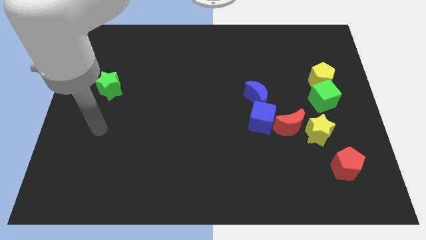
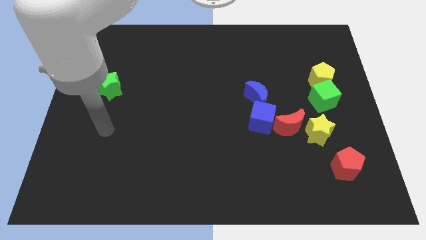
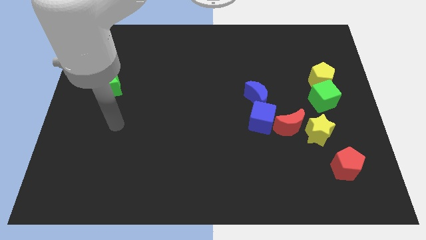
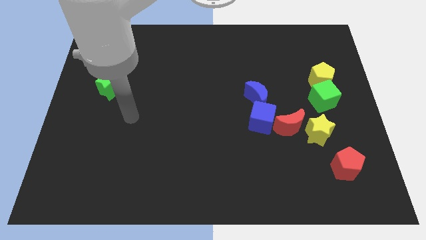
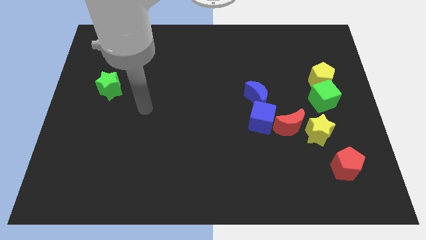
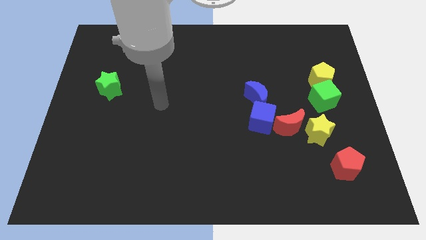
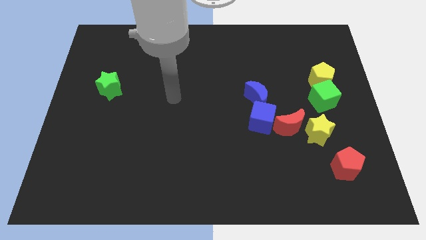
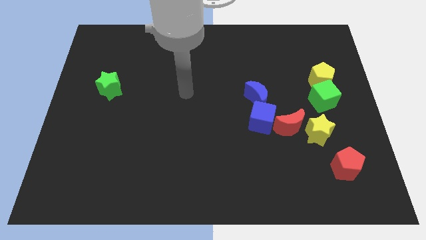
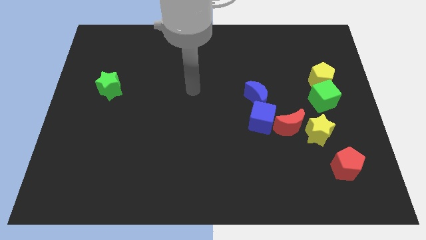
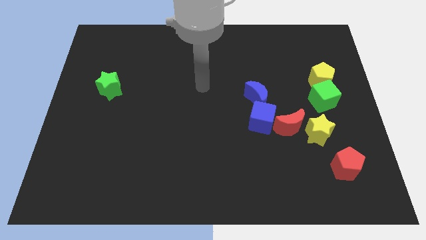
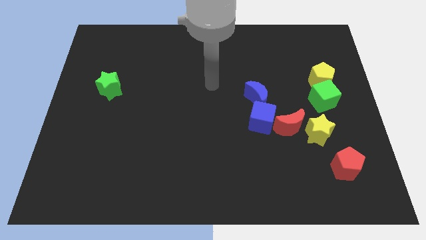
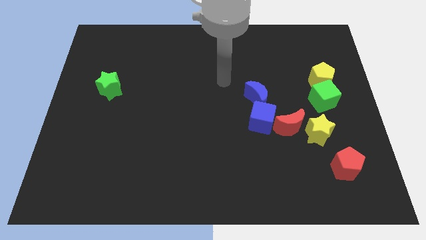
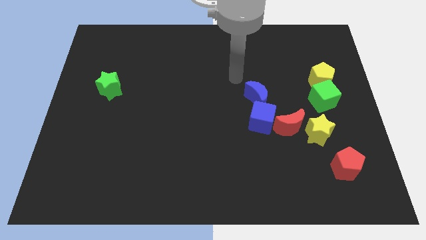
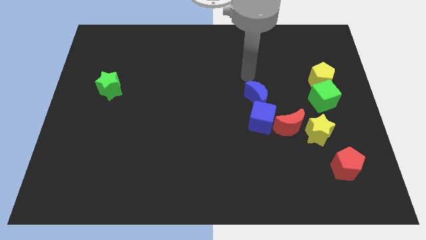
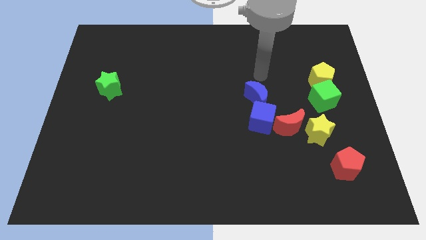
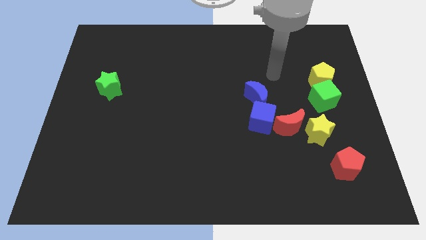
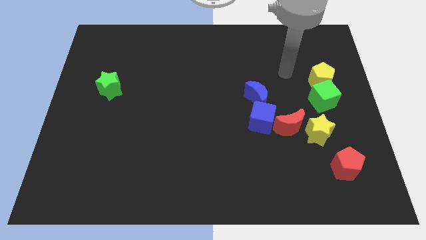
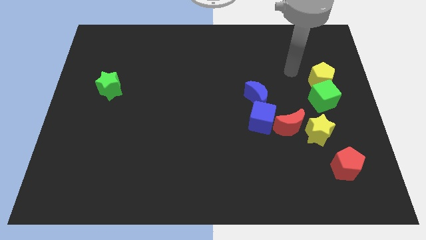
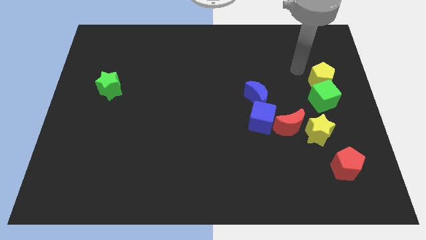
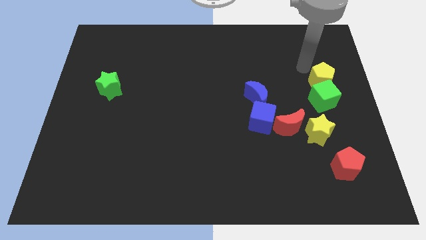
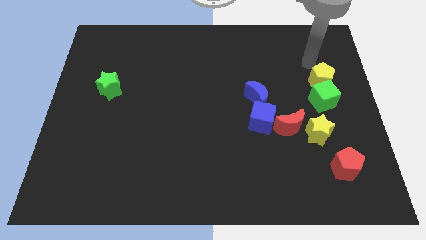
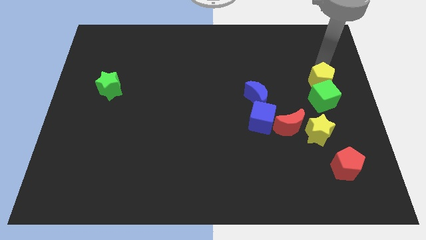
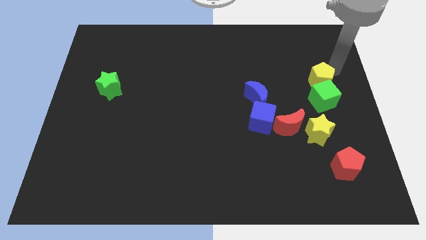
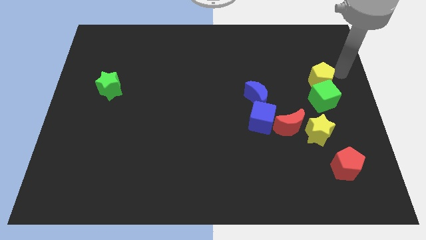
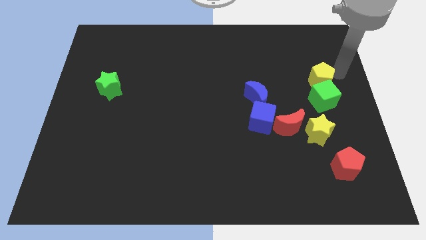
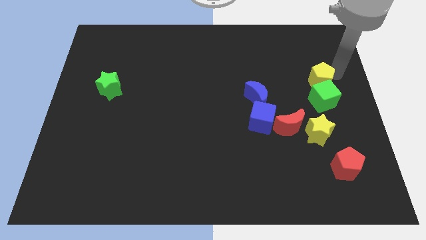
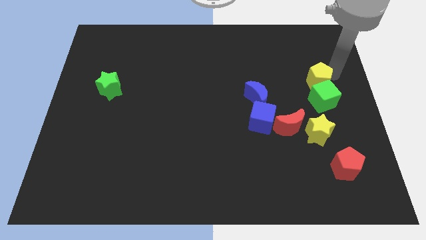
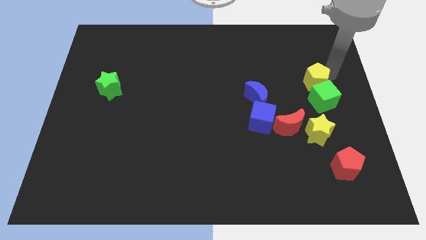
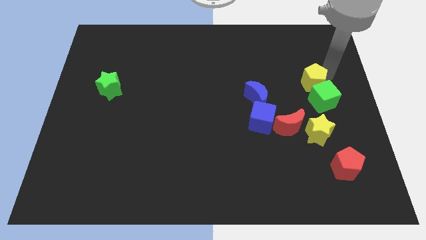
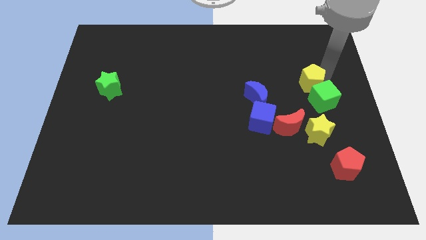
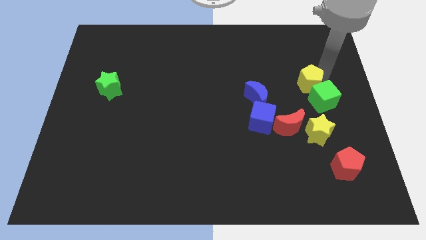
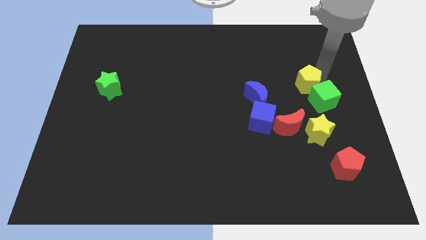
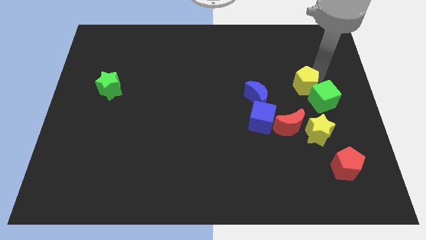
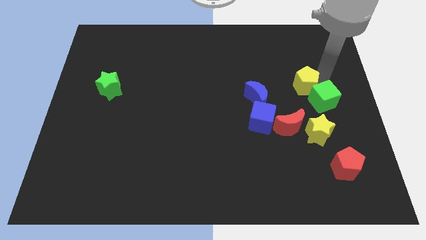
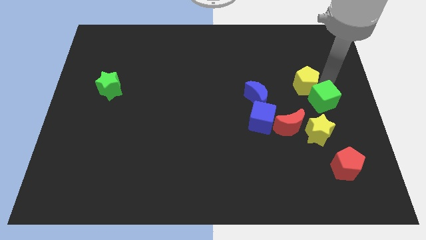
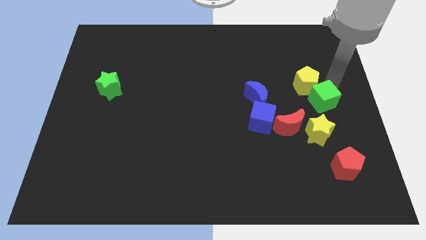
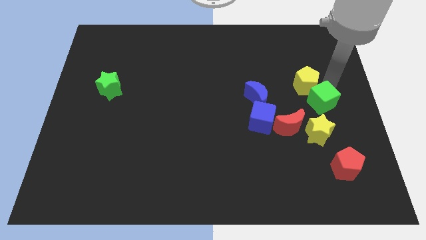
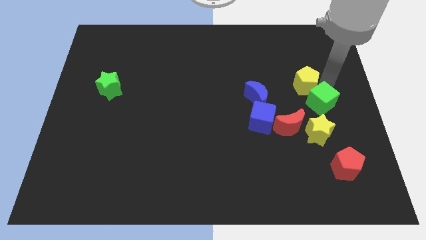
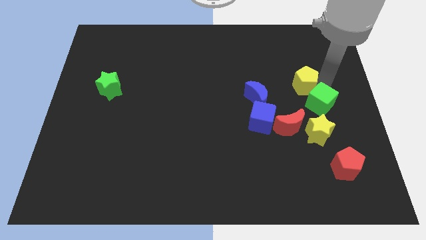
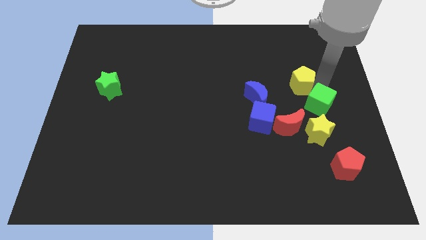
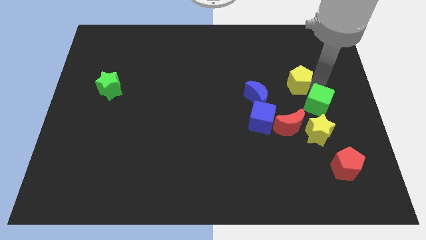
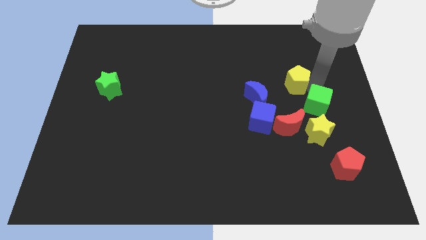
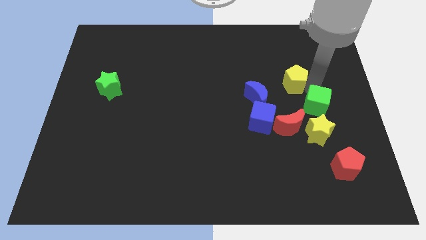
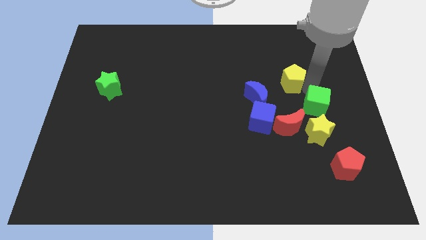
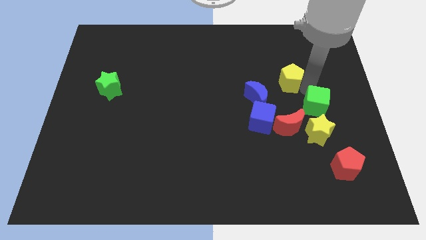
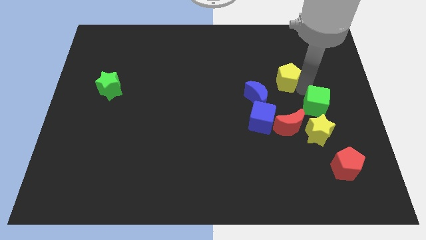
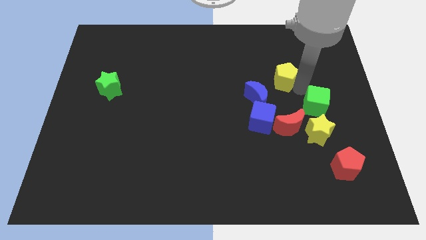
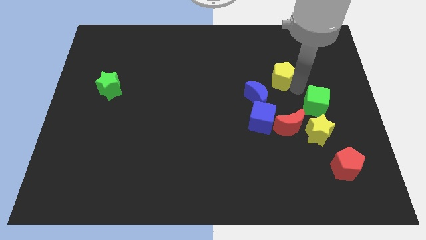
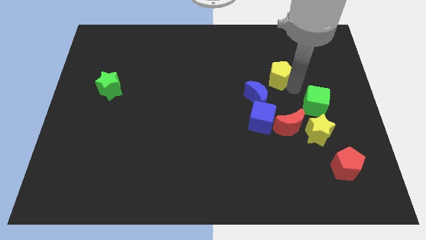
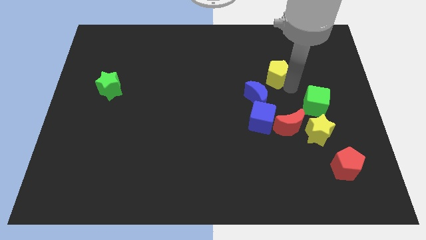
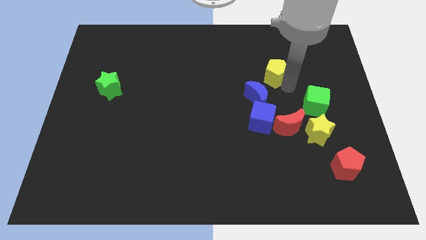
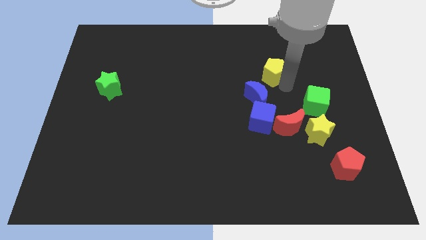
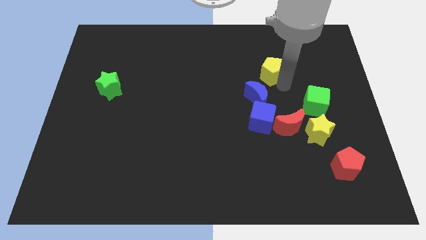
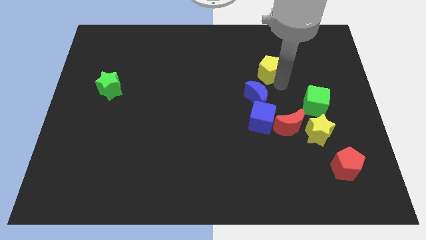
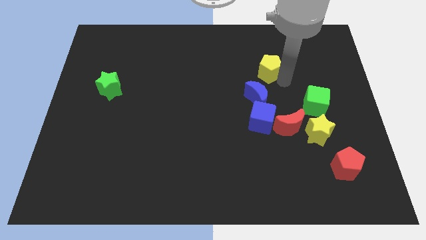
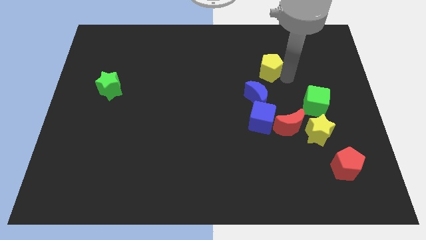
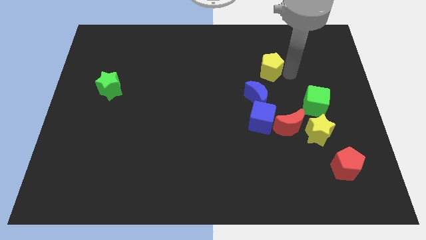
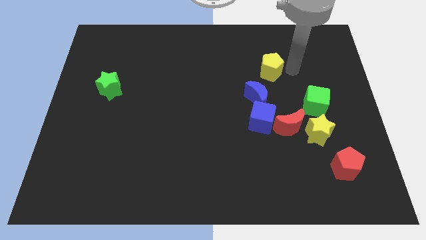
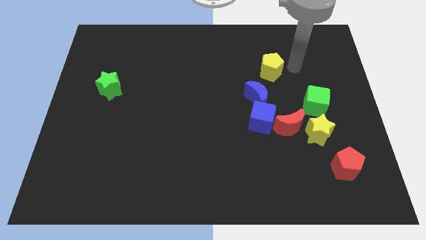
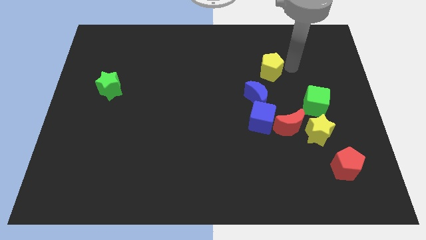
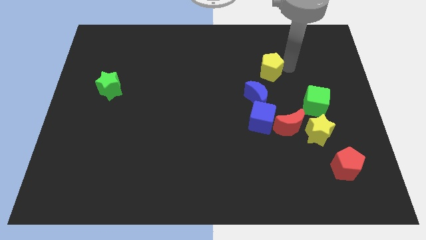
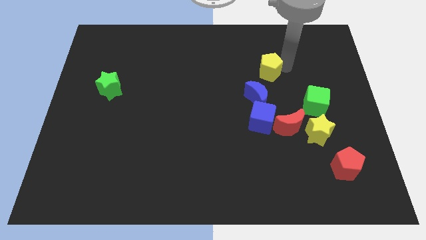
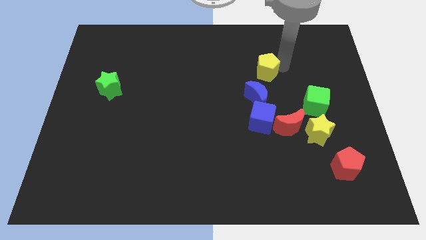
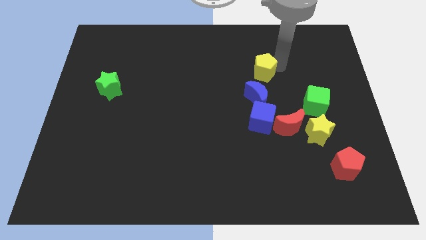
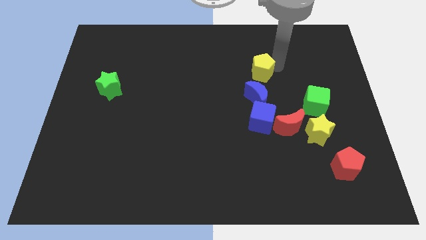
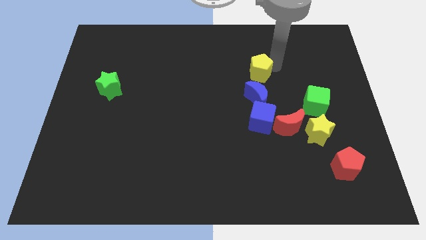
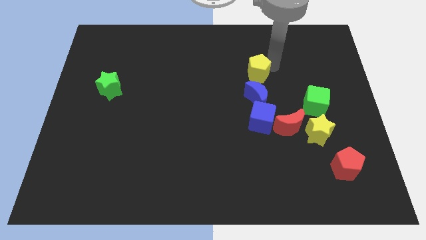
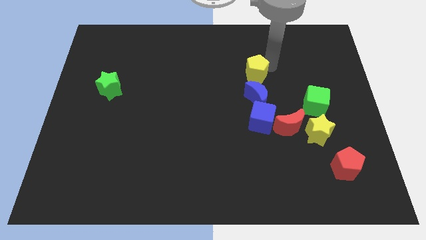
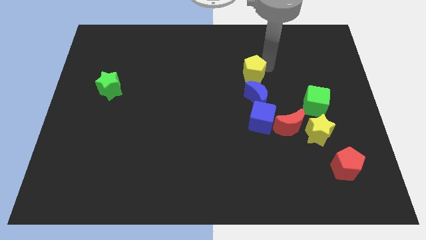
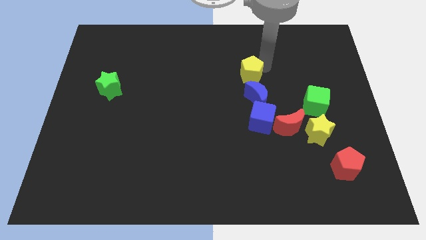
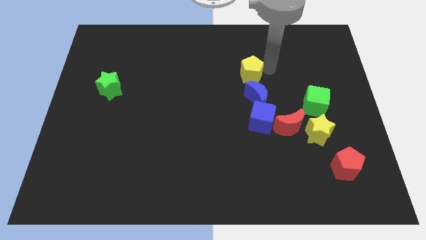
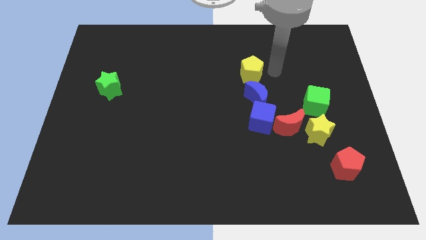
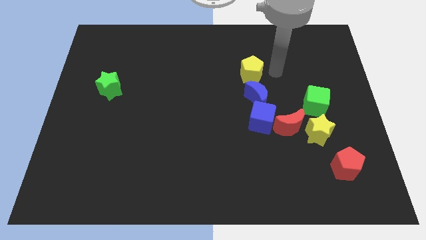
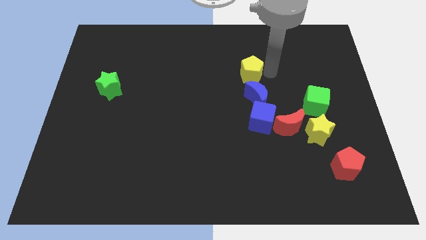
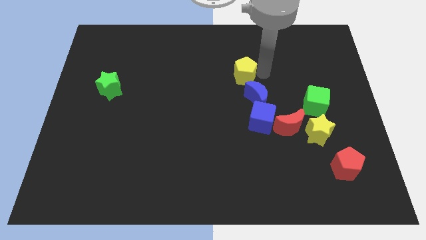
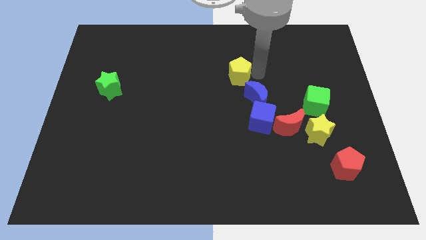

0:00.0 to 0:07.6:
slide the yellow pentagon left

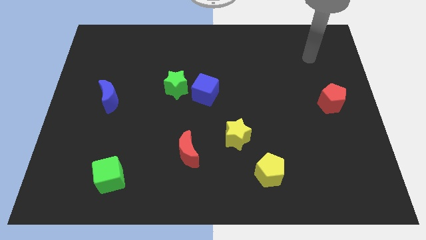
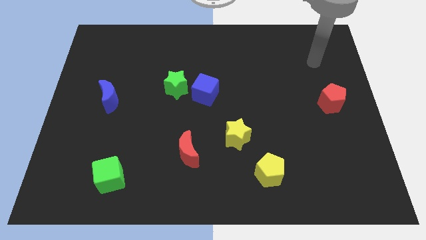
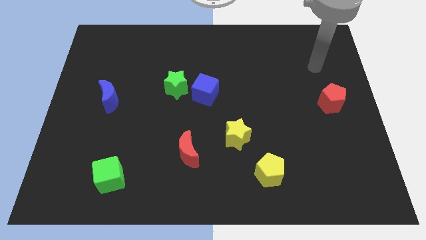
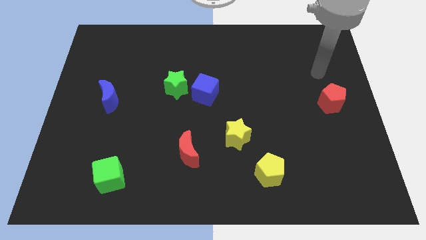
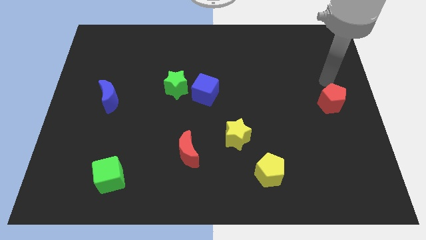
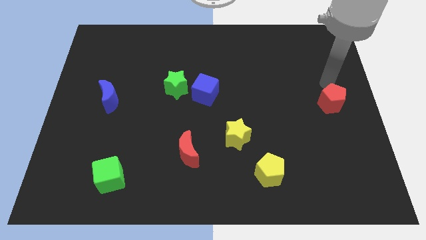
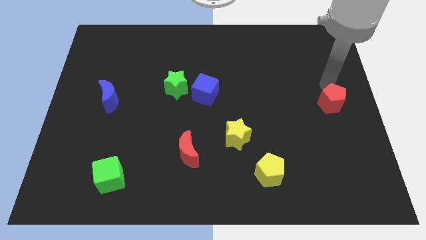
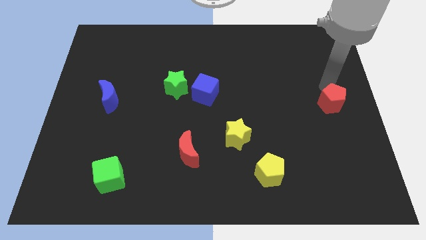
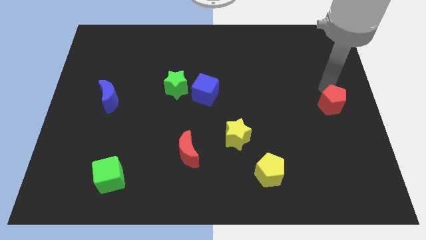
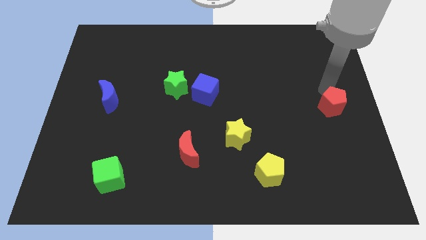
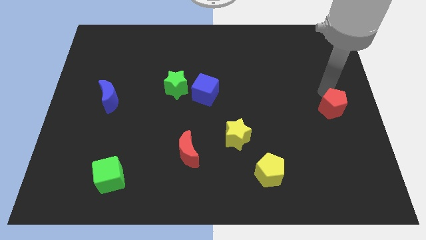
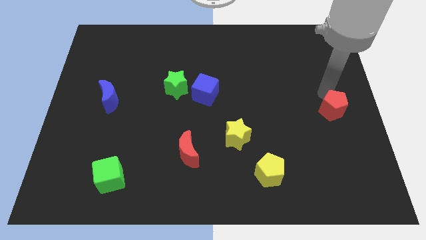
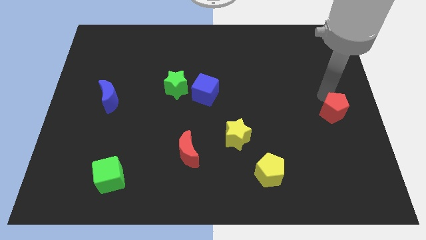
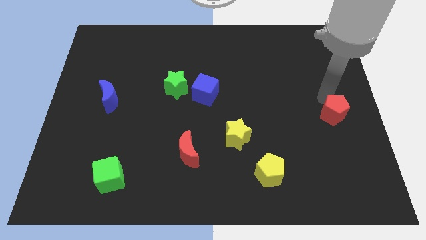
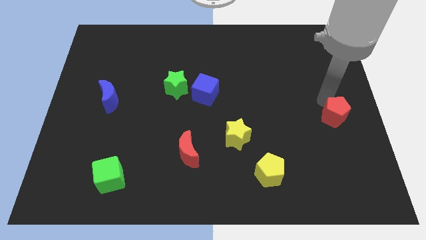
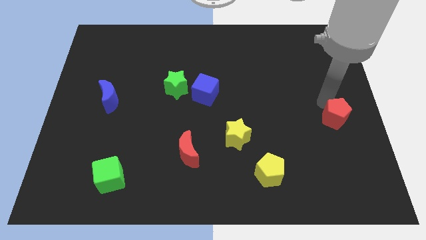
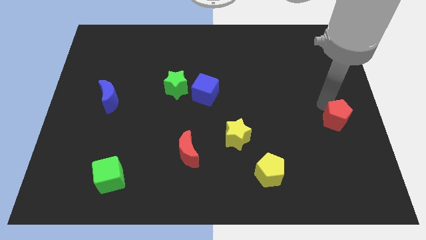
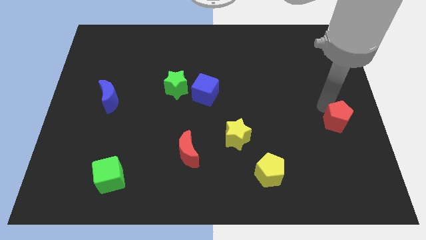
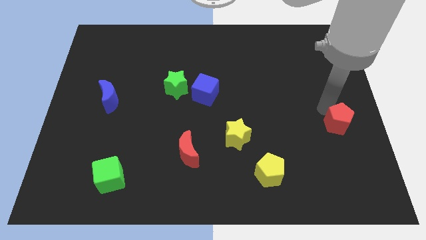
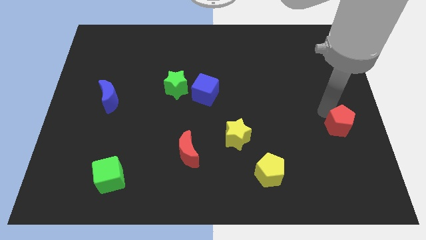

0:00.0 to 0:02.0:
slide the red pentagon downwards a little
